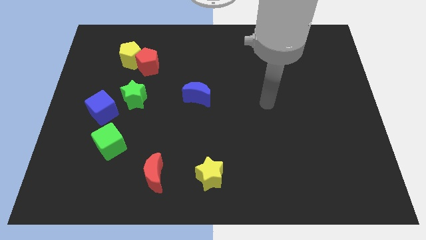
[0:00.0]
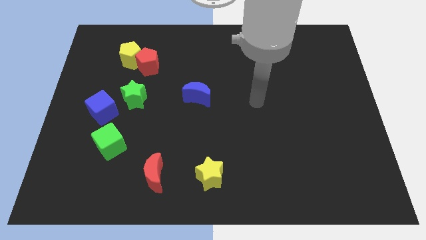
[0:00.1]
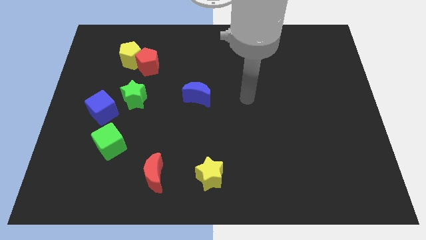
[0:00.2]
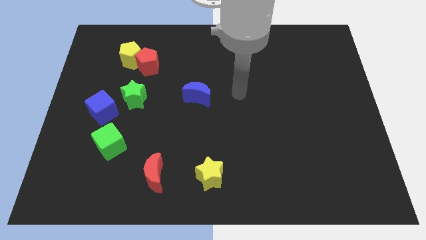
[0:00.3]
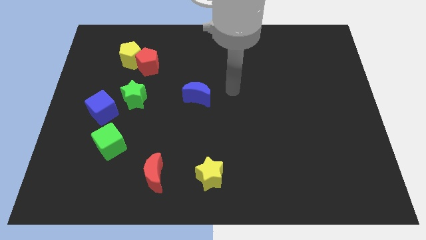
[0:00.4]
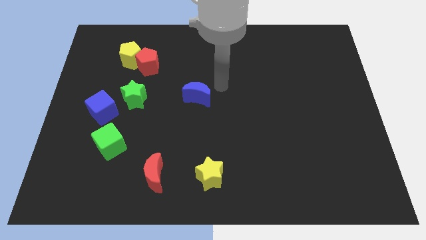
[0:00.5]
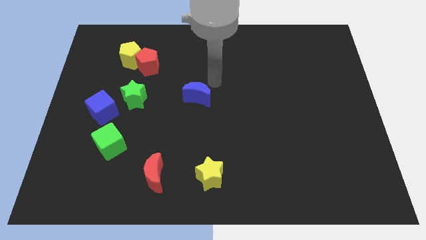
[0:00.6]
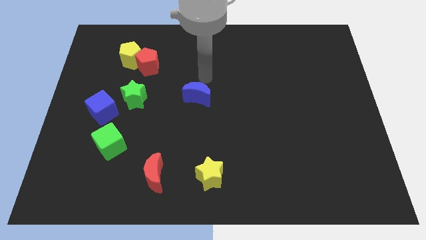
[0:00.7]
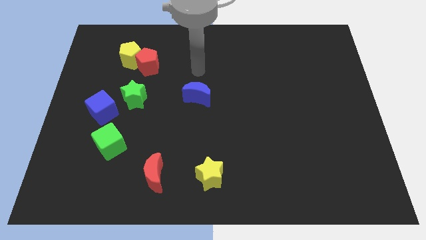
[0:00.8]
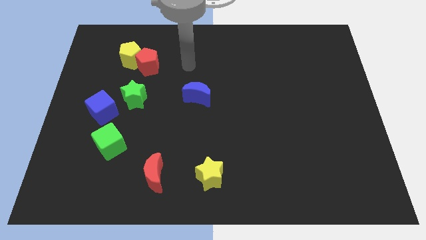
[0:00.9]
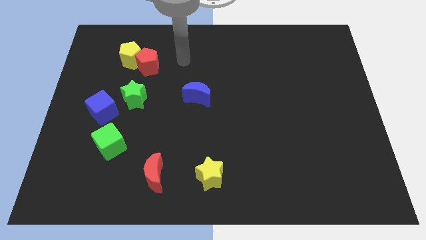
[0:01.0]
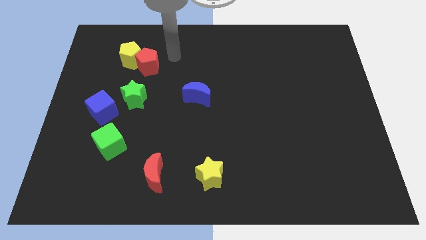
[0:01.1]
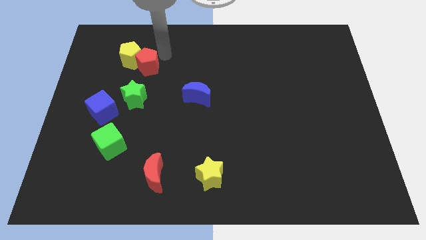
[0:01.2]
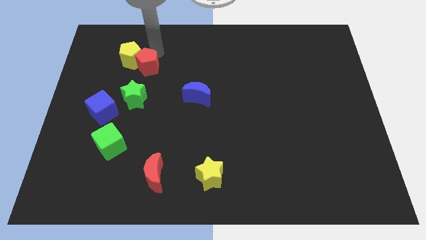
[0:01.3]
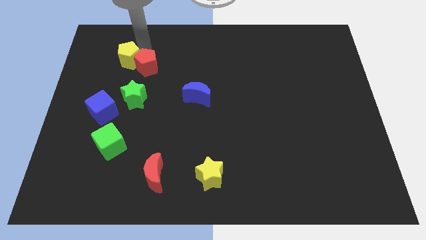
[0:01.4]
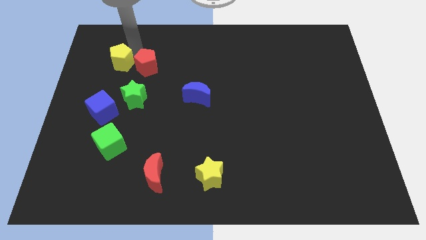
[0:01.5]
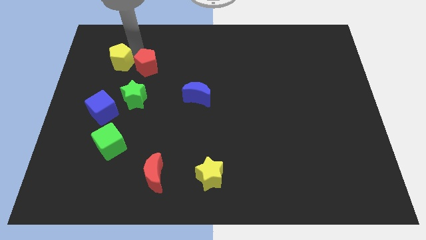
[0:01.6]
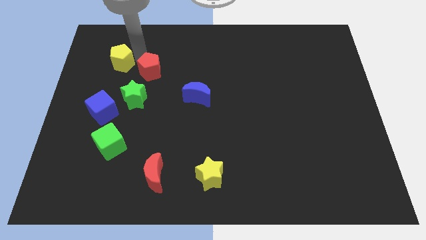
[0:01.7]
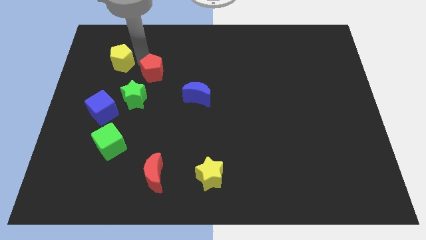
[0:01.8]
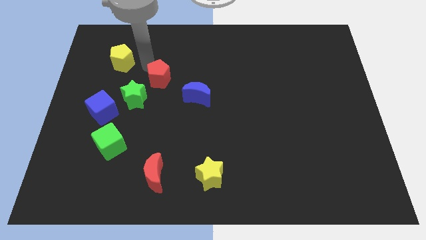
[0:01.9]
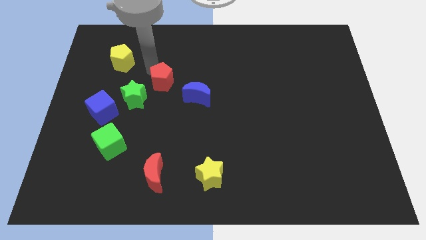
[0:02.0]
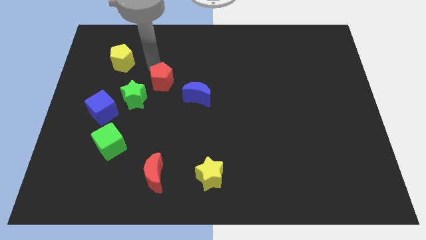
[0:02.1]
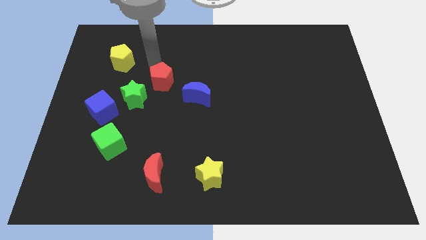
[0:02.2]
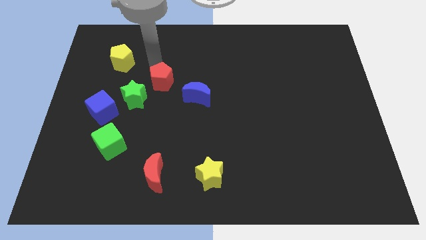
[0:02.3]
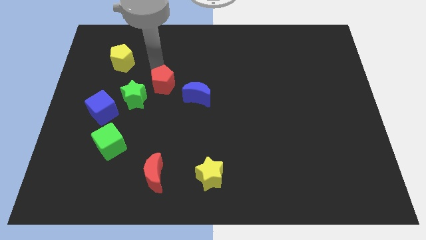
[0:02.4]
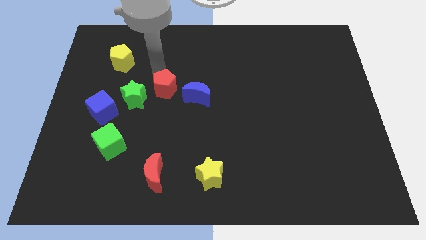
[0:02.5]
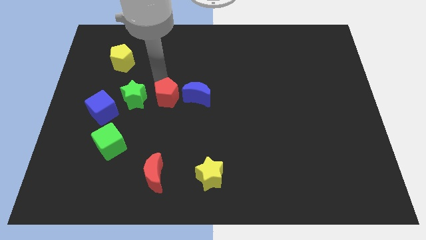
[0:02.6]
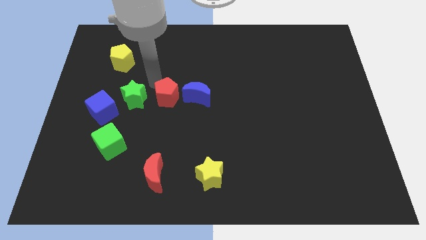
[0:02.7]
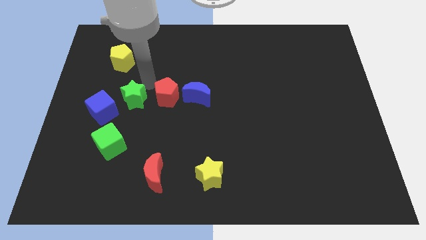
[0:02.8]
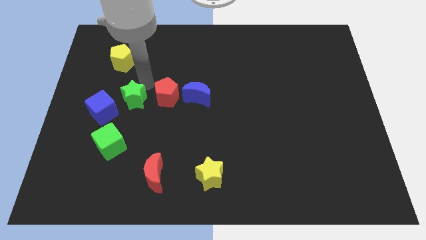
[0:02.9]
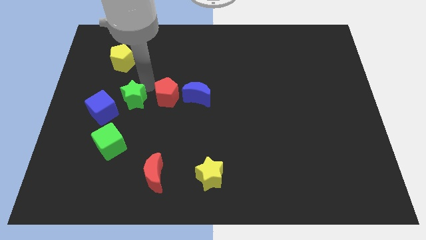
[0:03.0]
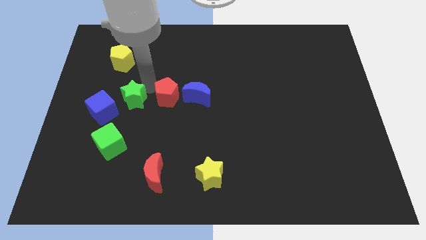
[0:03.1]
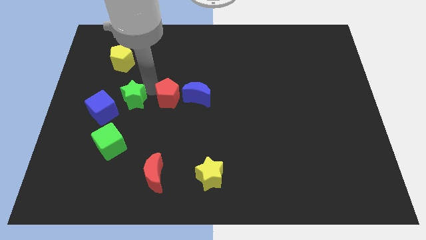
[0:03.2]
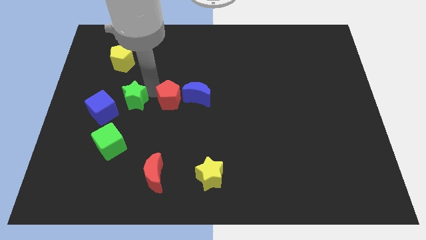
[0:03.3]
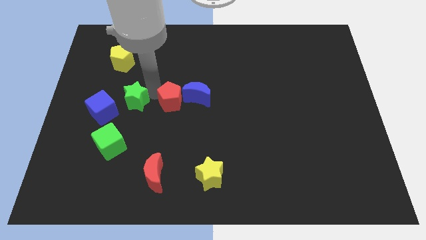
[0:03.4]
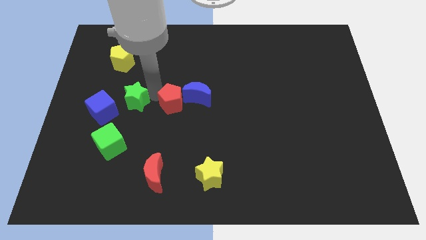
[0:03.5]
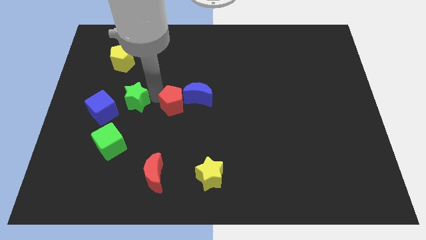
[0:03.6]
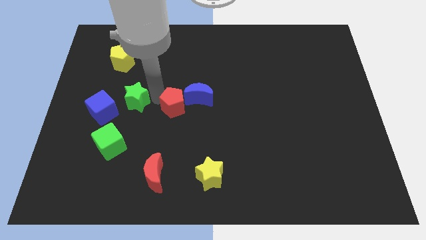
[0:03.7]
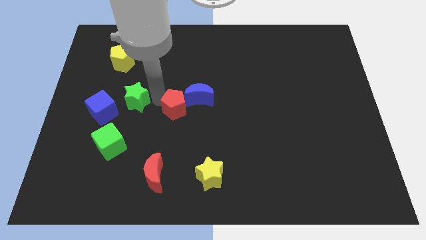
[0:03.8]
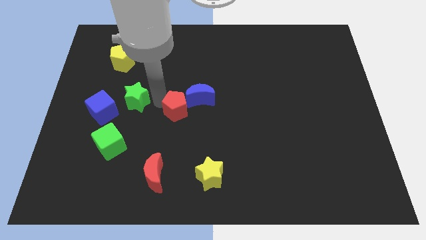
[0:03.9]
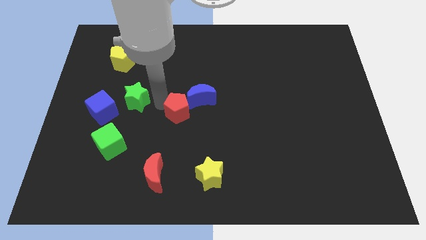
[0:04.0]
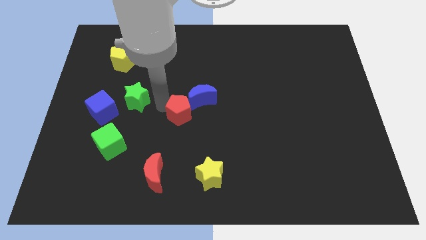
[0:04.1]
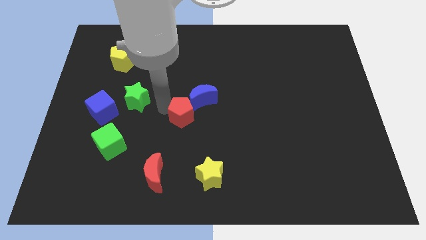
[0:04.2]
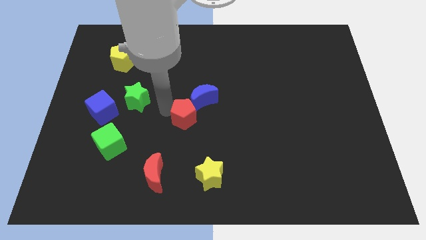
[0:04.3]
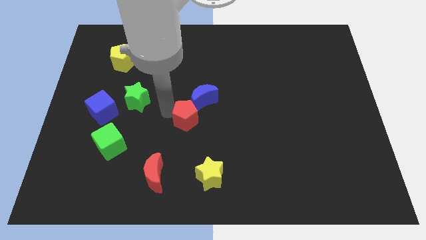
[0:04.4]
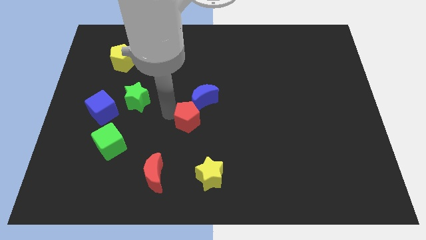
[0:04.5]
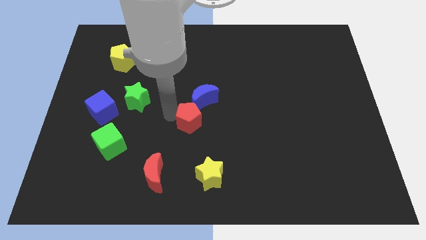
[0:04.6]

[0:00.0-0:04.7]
push the red pentagon diagonally down and to the right

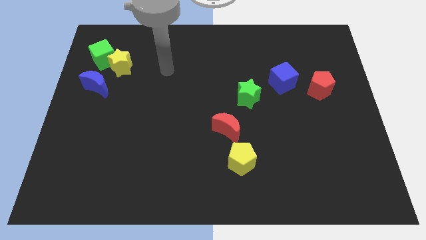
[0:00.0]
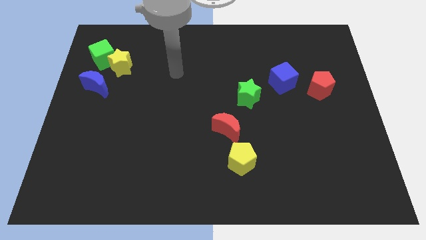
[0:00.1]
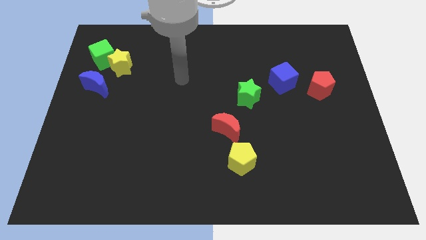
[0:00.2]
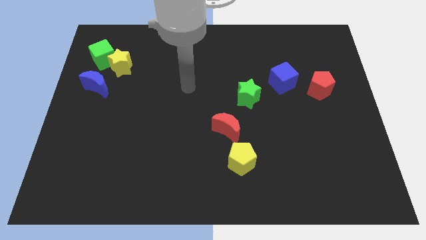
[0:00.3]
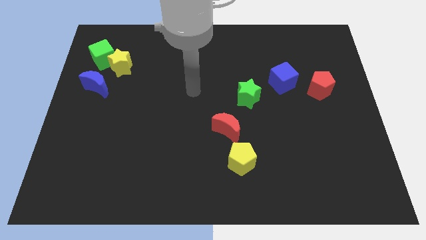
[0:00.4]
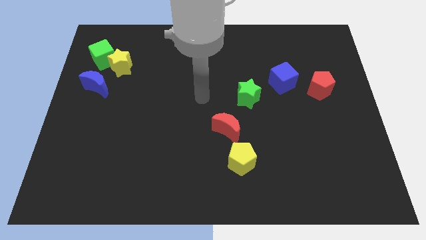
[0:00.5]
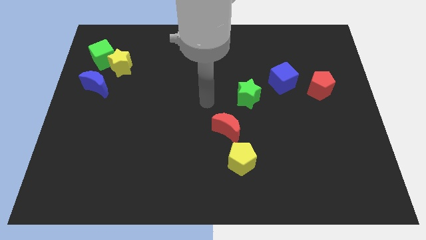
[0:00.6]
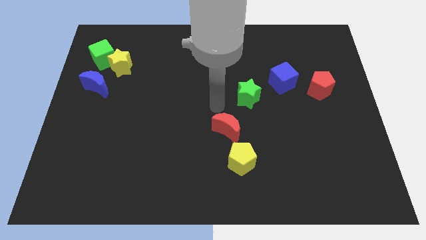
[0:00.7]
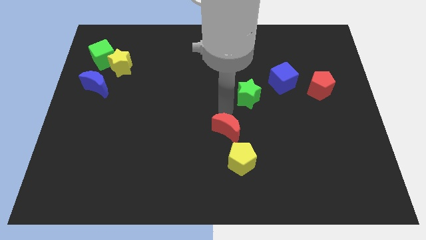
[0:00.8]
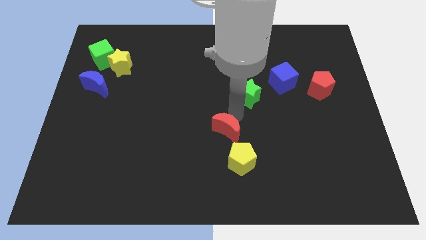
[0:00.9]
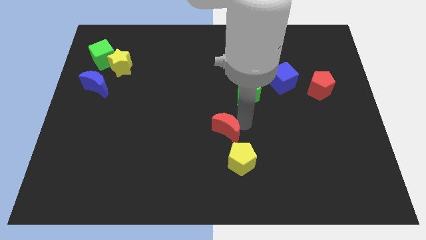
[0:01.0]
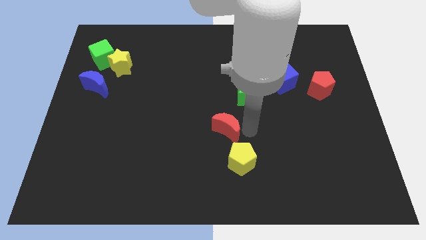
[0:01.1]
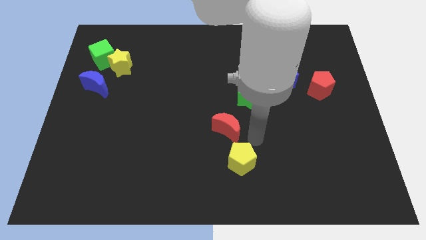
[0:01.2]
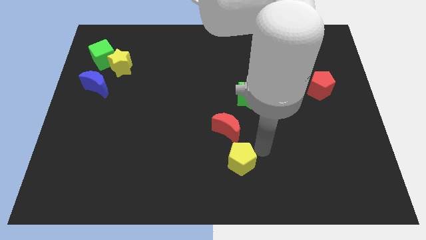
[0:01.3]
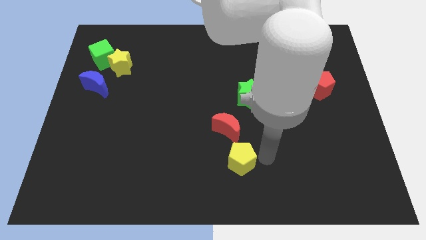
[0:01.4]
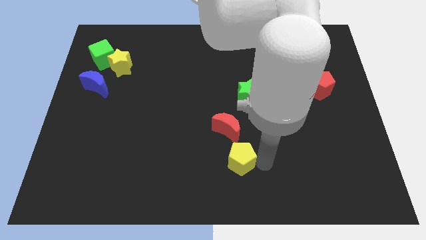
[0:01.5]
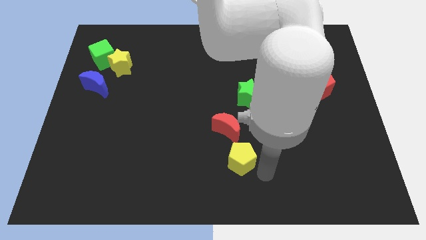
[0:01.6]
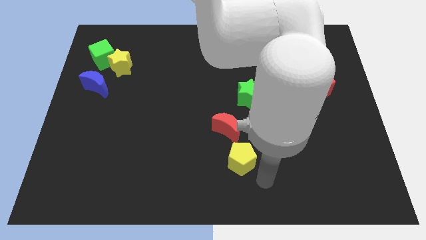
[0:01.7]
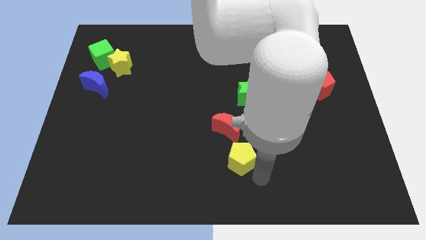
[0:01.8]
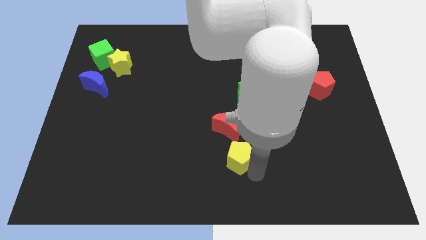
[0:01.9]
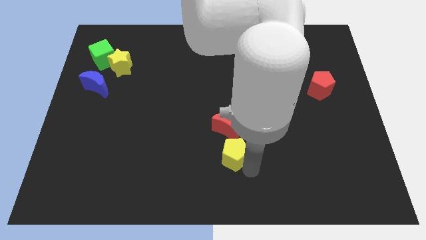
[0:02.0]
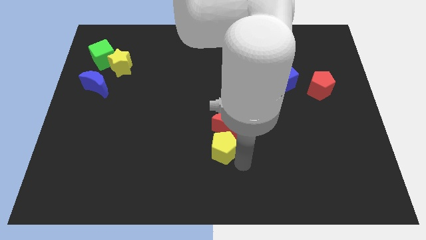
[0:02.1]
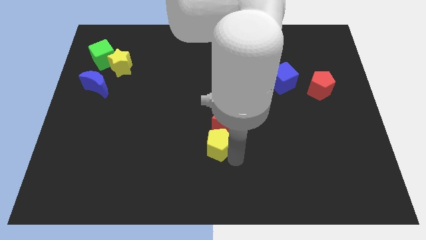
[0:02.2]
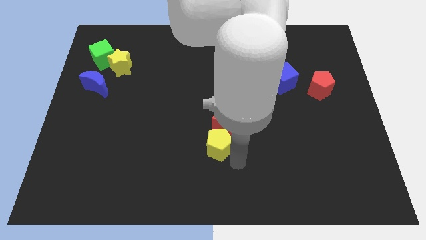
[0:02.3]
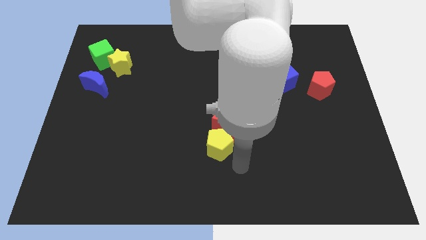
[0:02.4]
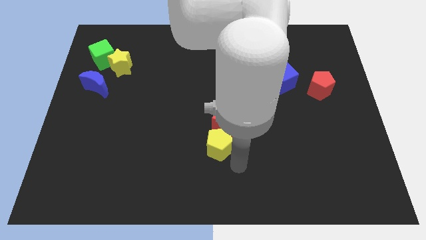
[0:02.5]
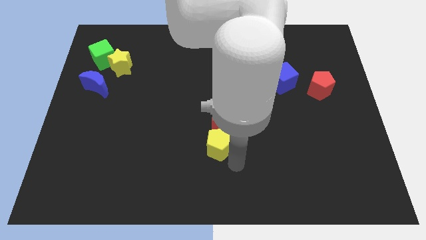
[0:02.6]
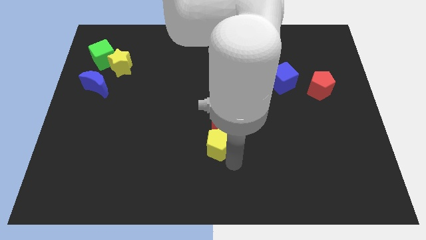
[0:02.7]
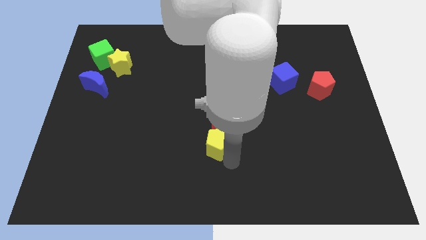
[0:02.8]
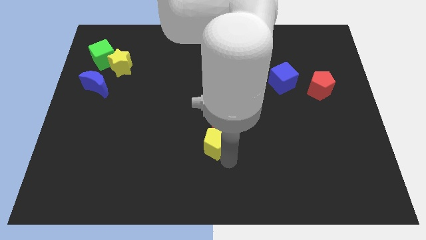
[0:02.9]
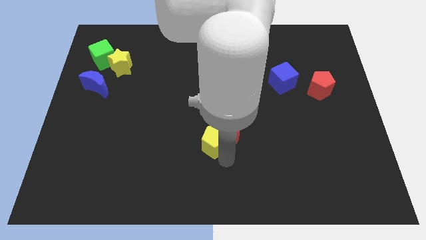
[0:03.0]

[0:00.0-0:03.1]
push the yellow pentagon a little bit upwards and left

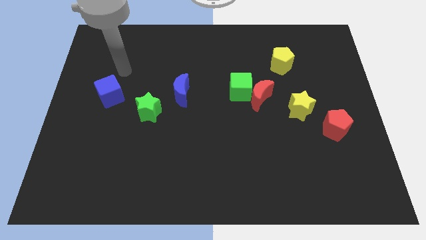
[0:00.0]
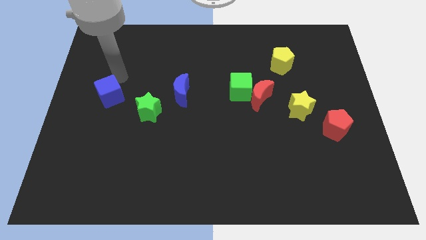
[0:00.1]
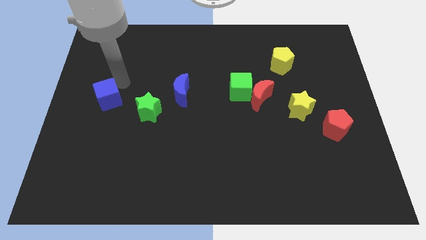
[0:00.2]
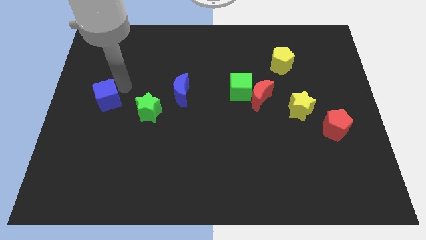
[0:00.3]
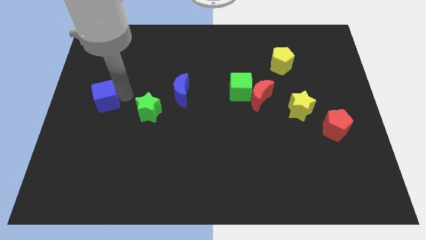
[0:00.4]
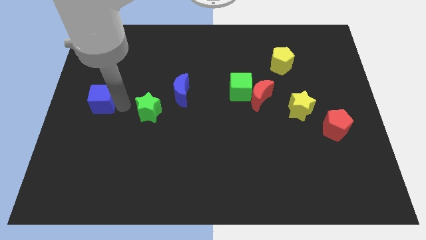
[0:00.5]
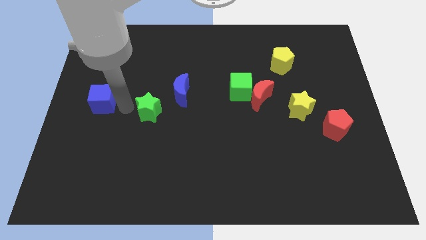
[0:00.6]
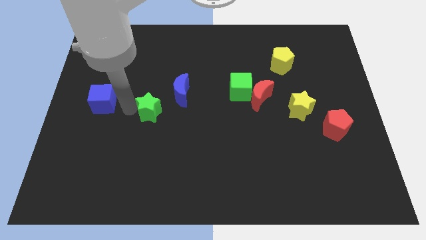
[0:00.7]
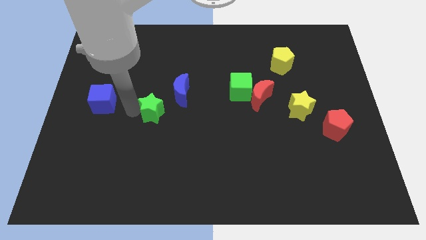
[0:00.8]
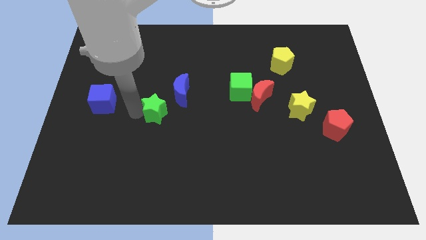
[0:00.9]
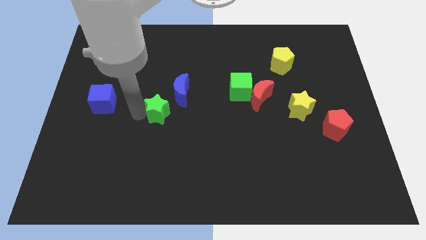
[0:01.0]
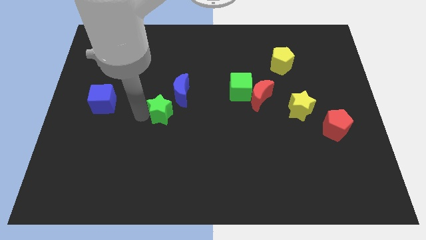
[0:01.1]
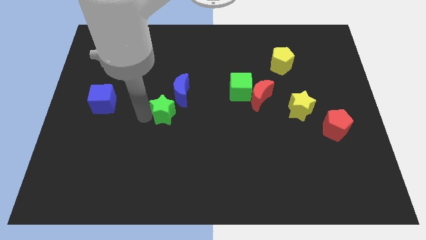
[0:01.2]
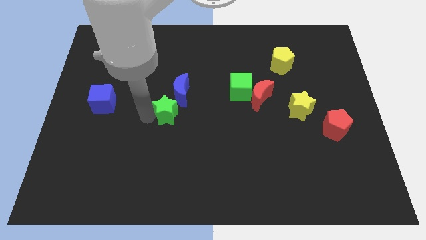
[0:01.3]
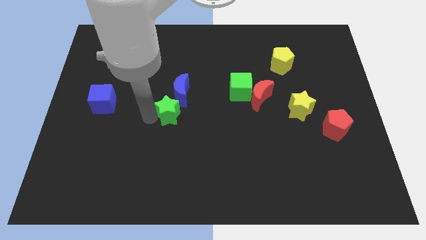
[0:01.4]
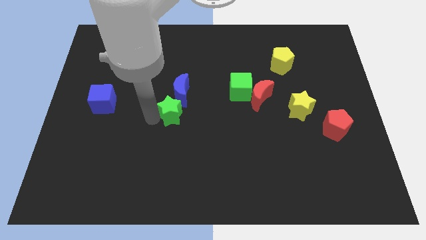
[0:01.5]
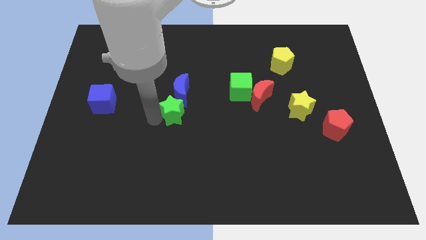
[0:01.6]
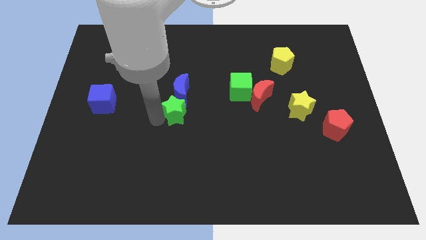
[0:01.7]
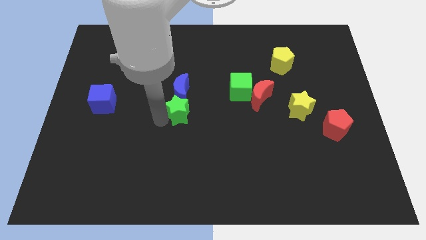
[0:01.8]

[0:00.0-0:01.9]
slightly move the green star to the right
